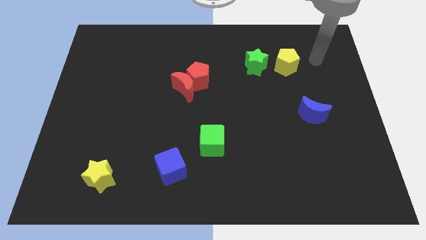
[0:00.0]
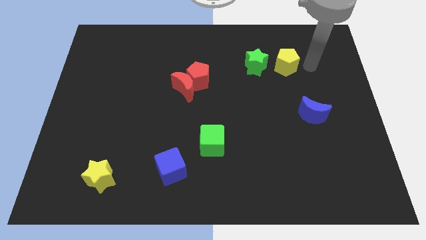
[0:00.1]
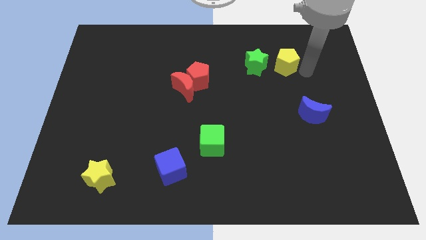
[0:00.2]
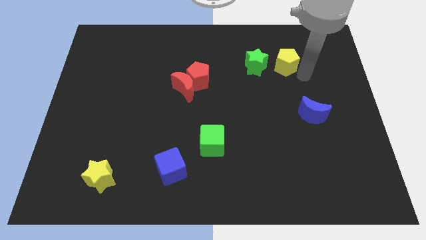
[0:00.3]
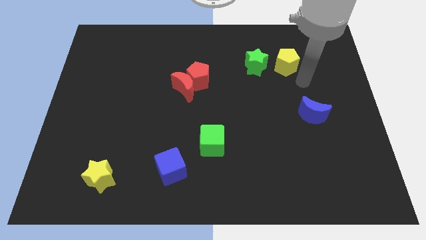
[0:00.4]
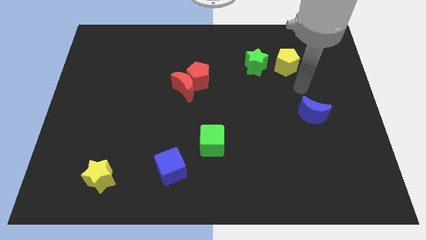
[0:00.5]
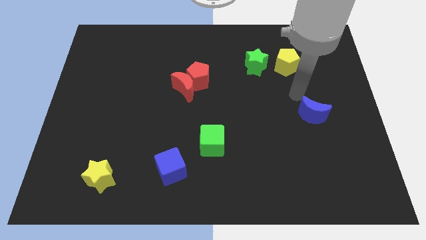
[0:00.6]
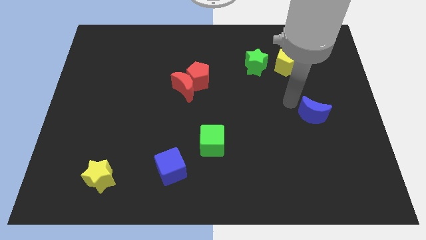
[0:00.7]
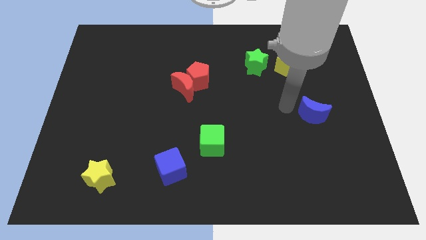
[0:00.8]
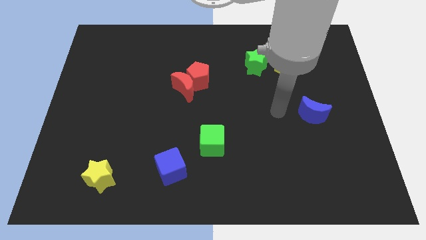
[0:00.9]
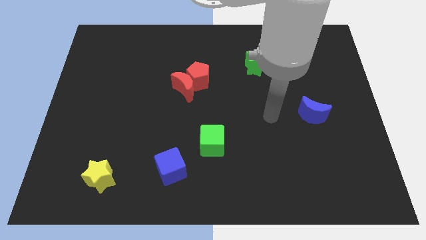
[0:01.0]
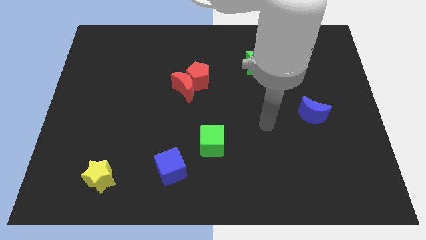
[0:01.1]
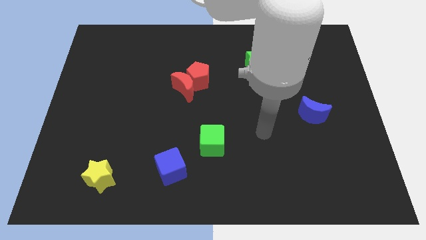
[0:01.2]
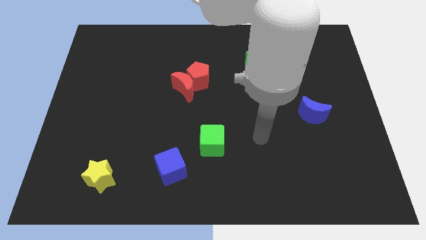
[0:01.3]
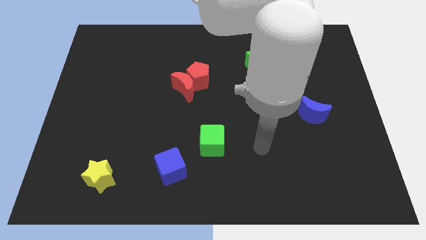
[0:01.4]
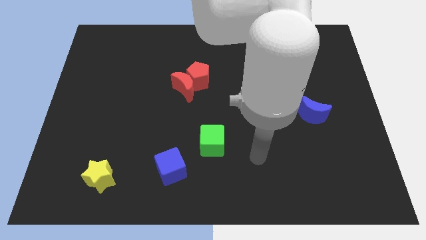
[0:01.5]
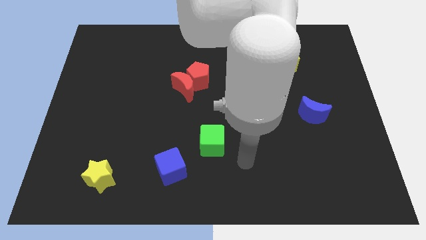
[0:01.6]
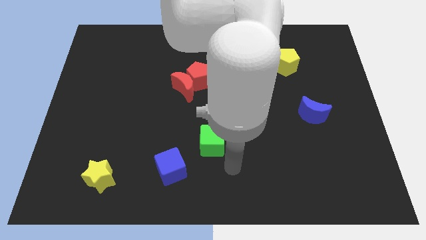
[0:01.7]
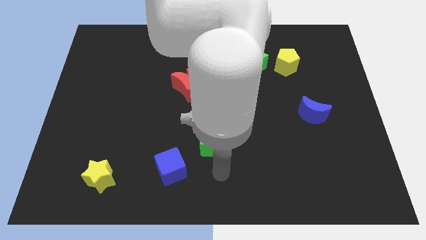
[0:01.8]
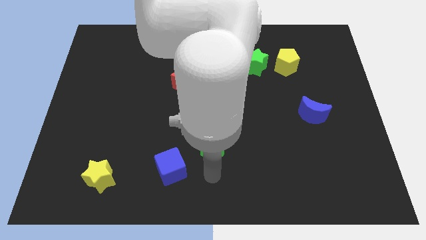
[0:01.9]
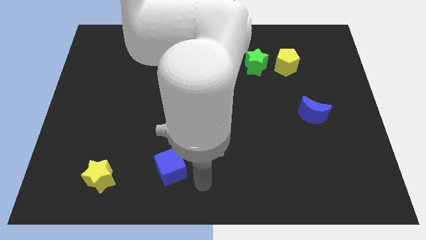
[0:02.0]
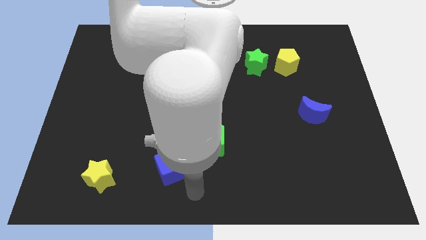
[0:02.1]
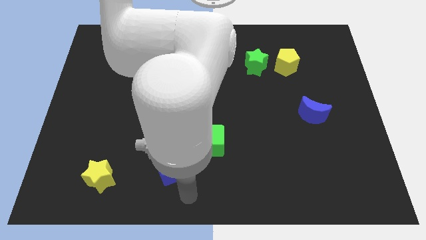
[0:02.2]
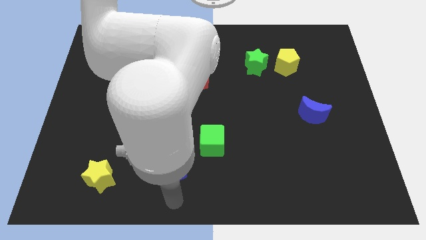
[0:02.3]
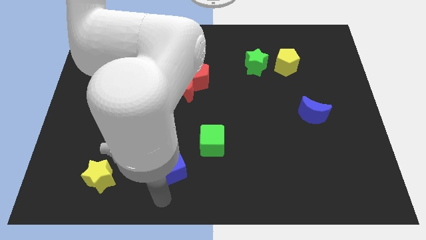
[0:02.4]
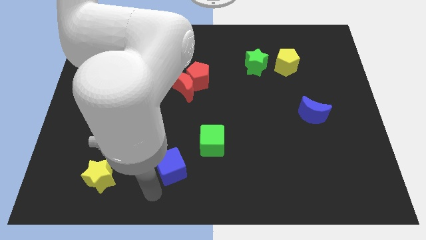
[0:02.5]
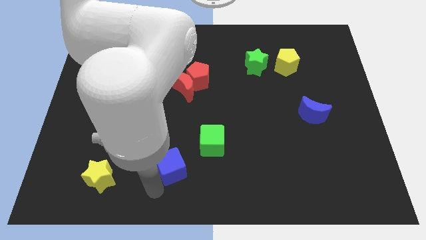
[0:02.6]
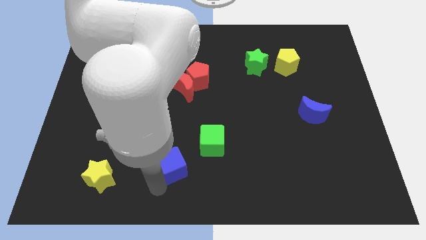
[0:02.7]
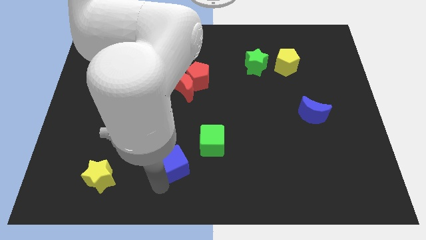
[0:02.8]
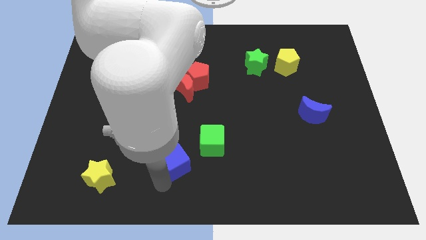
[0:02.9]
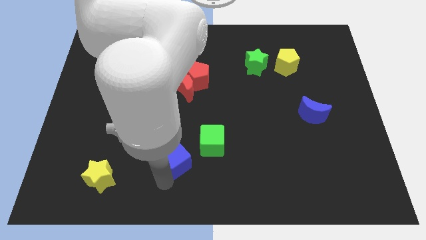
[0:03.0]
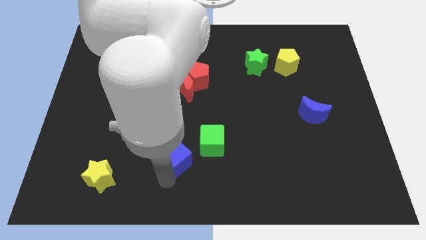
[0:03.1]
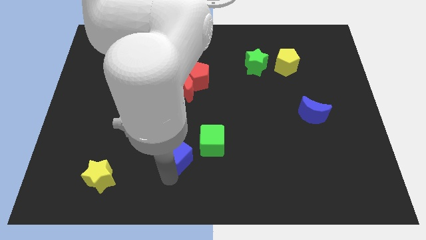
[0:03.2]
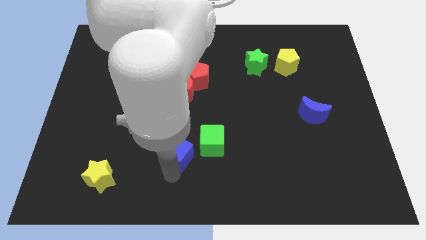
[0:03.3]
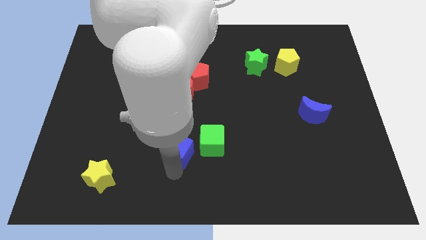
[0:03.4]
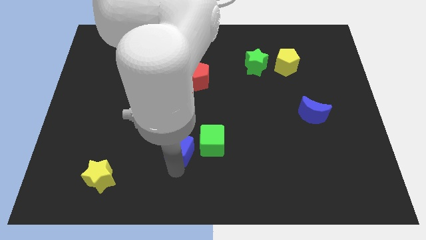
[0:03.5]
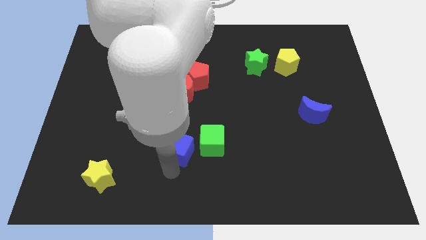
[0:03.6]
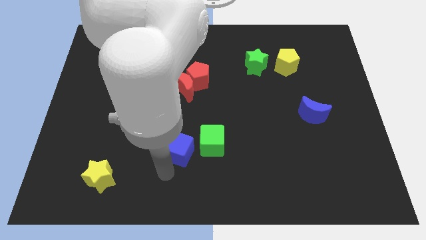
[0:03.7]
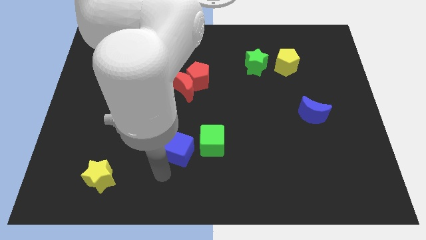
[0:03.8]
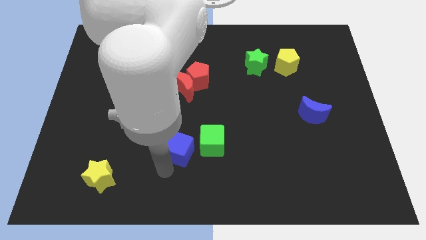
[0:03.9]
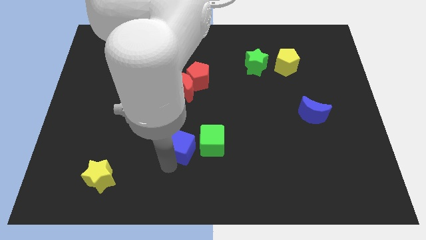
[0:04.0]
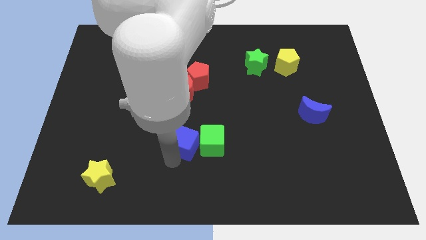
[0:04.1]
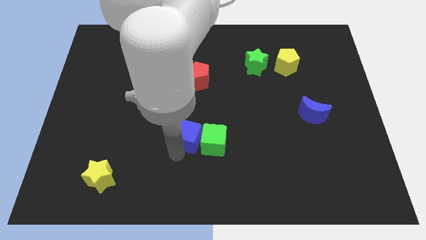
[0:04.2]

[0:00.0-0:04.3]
slightly move the blue cube upwards and to the right diagonally

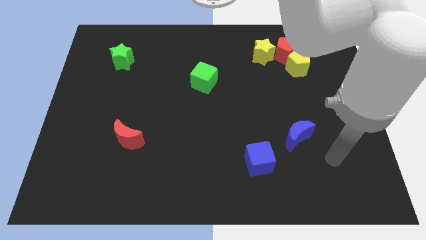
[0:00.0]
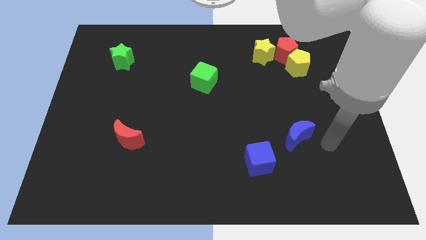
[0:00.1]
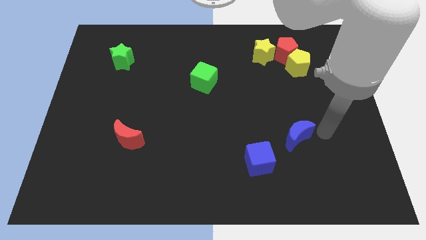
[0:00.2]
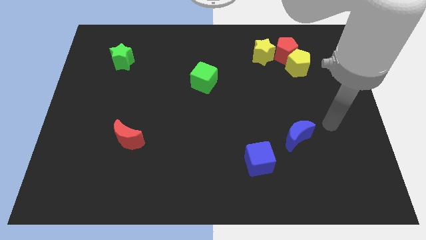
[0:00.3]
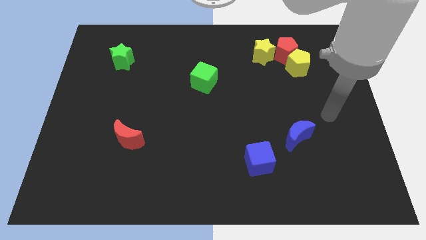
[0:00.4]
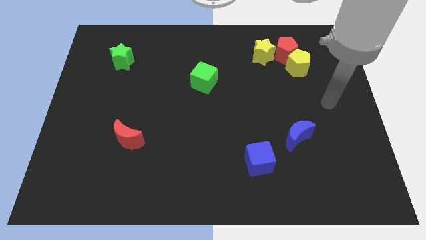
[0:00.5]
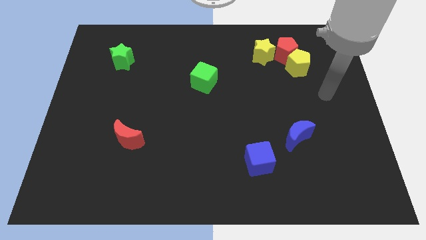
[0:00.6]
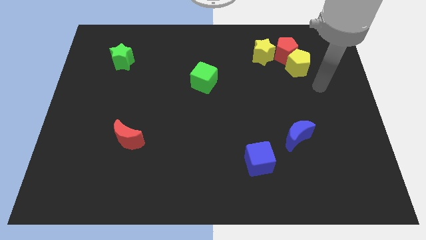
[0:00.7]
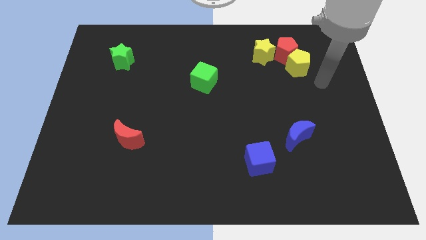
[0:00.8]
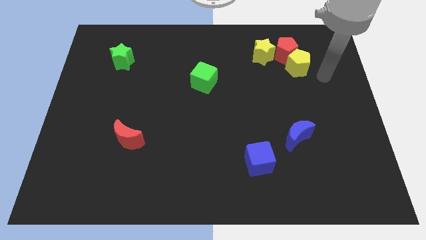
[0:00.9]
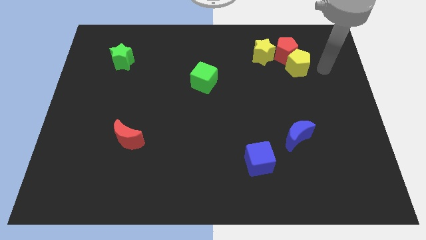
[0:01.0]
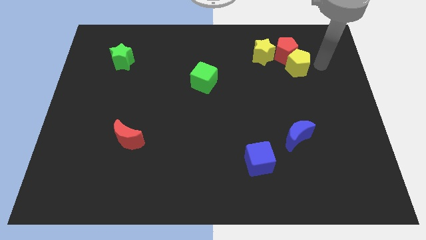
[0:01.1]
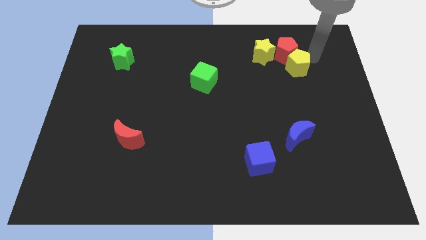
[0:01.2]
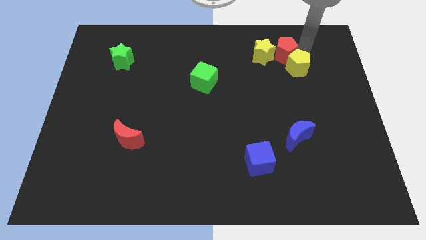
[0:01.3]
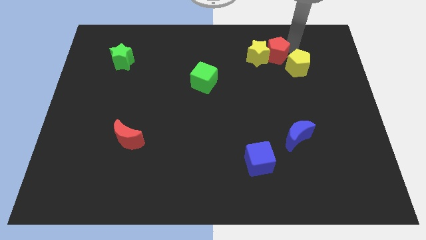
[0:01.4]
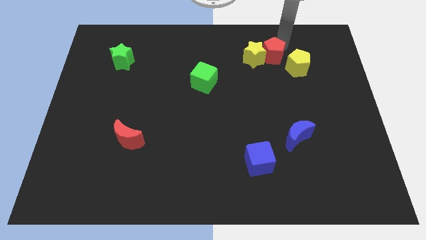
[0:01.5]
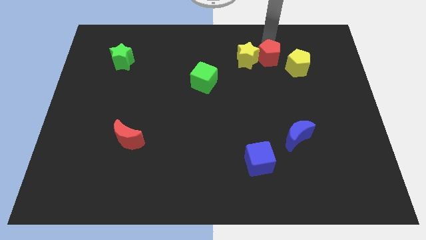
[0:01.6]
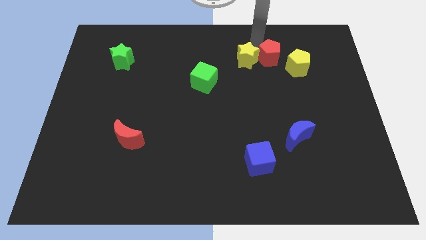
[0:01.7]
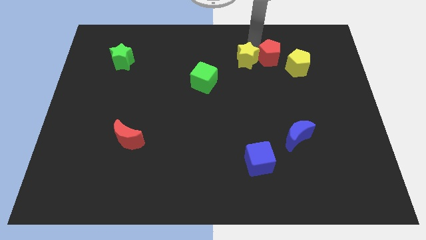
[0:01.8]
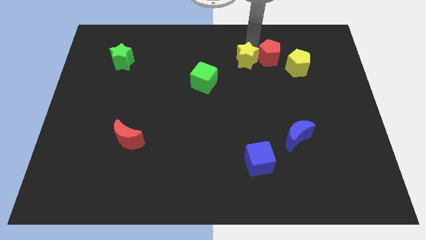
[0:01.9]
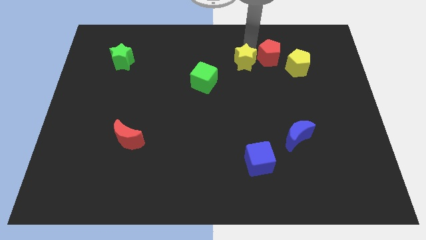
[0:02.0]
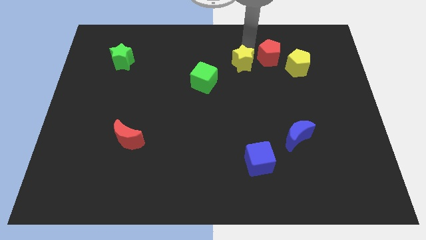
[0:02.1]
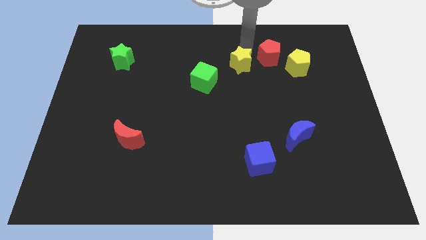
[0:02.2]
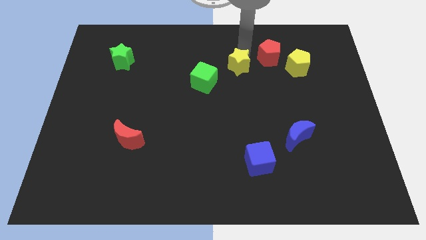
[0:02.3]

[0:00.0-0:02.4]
push the yellow star a little bit diagonally down and left

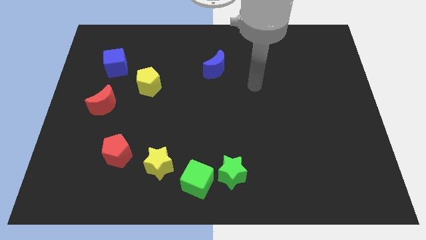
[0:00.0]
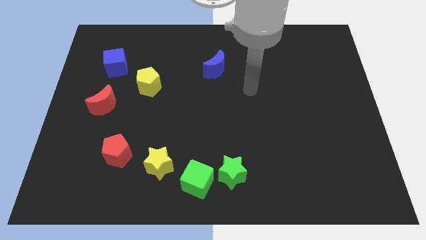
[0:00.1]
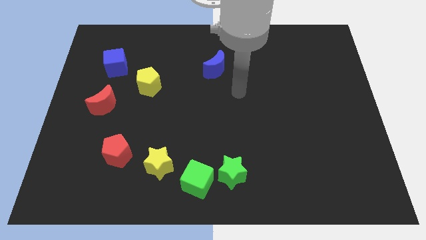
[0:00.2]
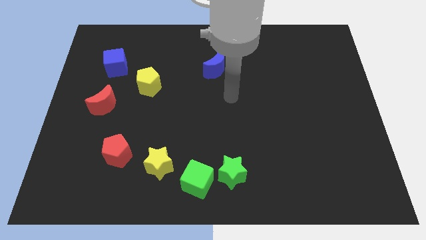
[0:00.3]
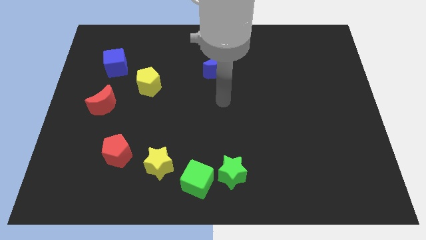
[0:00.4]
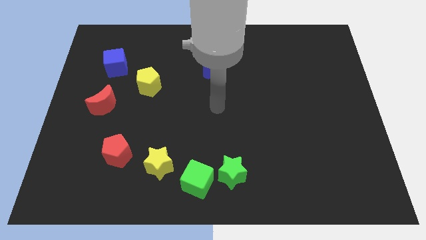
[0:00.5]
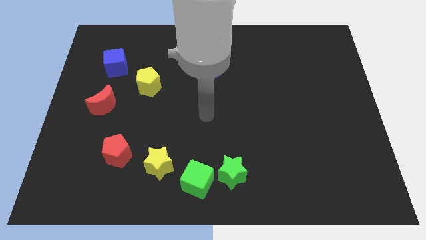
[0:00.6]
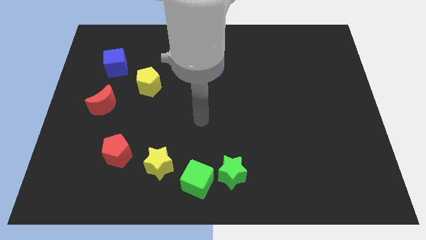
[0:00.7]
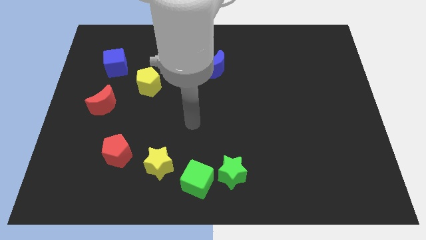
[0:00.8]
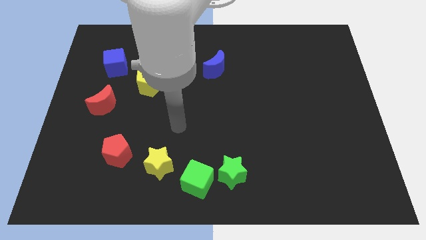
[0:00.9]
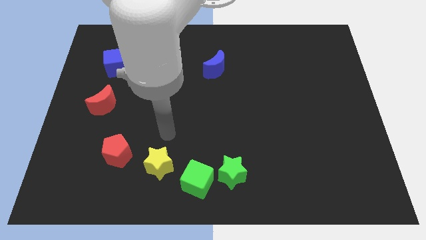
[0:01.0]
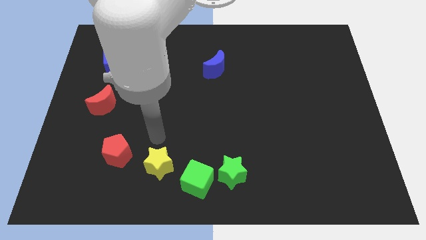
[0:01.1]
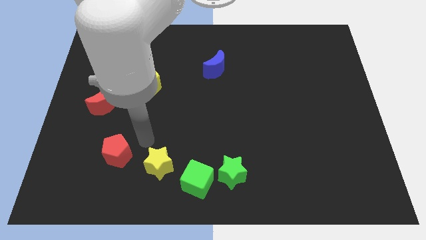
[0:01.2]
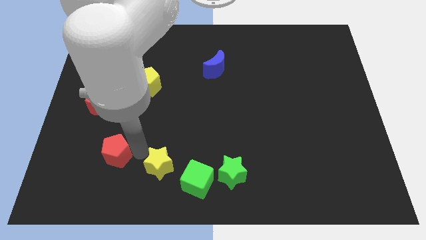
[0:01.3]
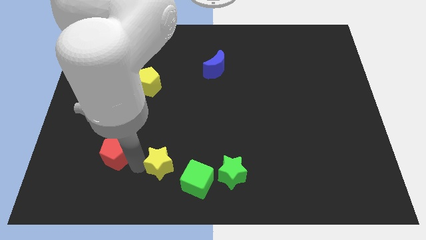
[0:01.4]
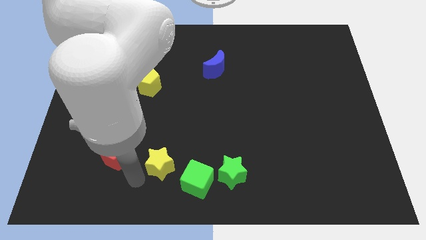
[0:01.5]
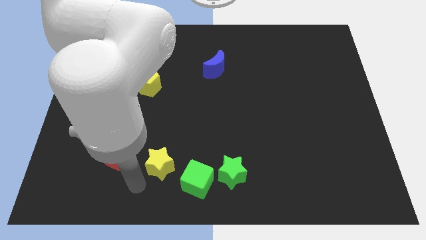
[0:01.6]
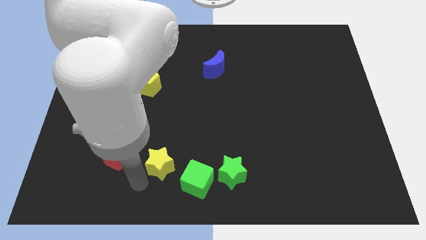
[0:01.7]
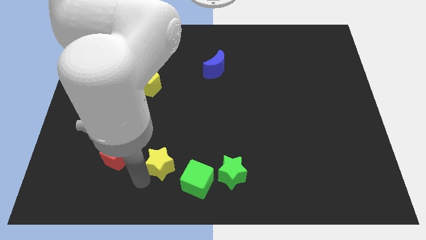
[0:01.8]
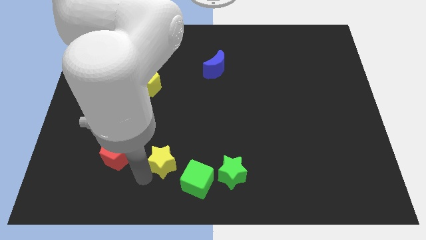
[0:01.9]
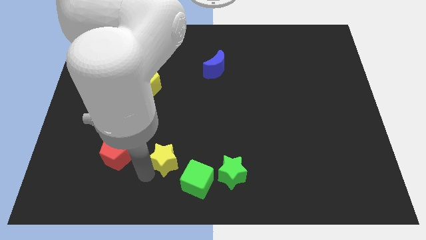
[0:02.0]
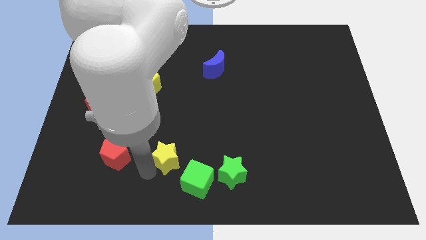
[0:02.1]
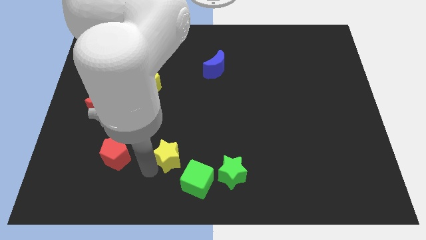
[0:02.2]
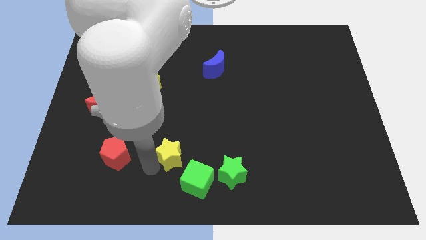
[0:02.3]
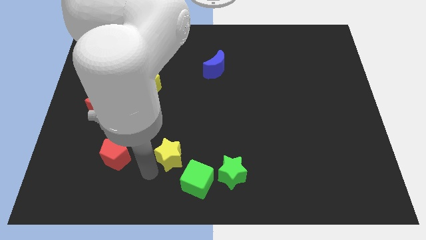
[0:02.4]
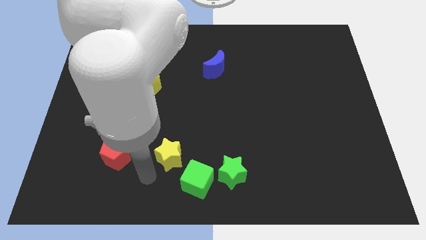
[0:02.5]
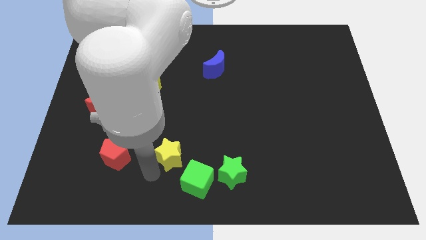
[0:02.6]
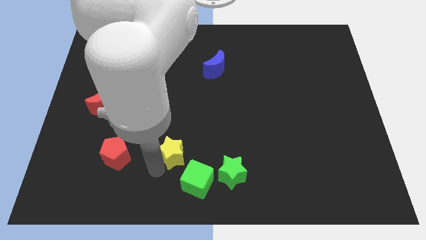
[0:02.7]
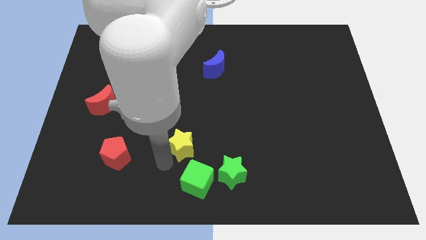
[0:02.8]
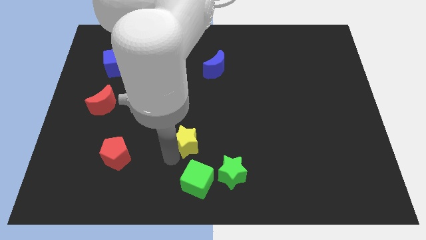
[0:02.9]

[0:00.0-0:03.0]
slide the yellow star a bit upwards and then to the right
